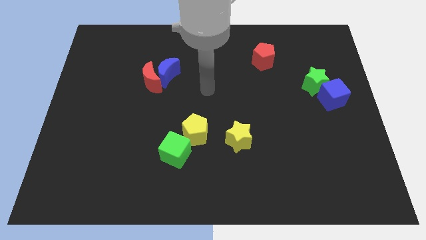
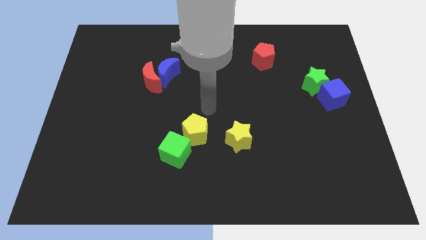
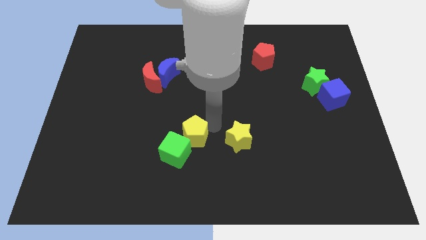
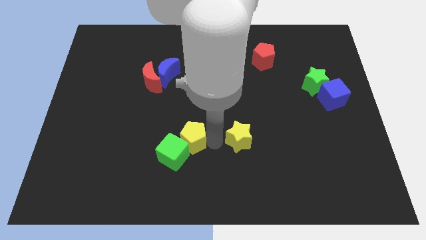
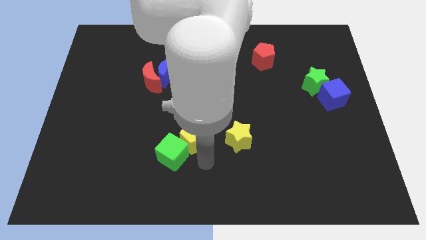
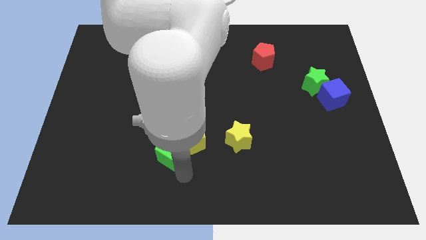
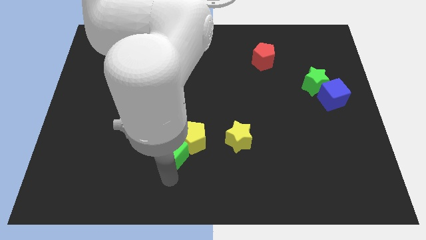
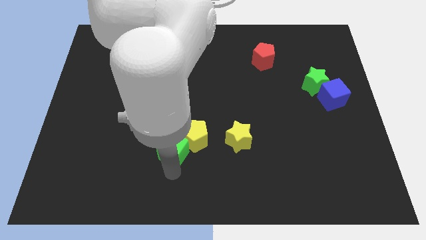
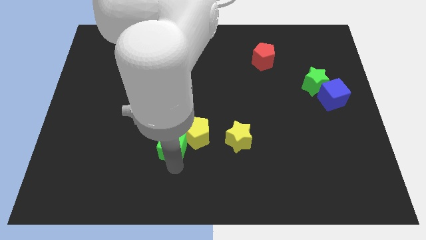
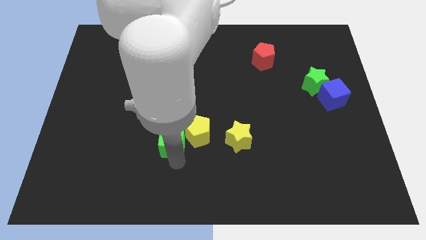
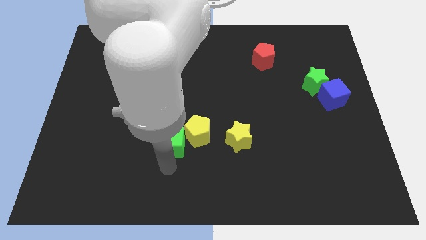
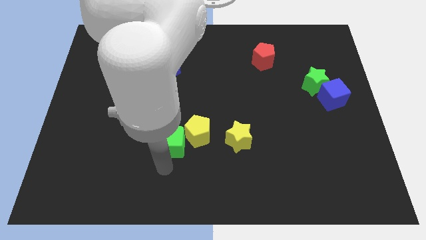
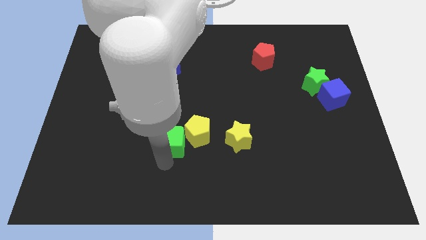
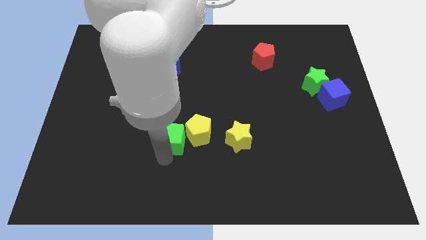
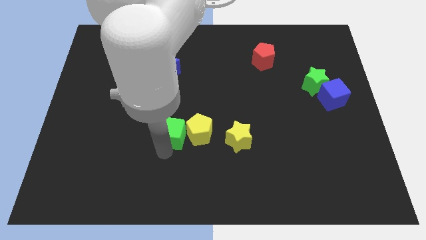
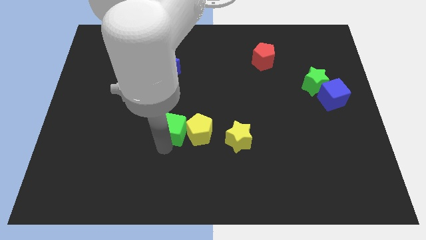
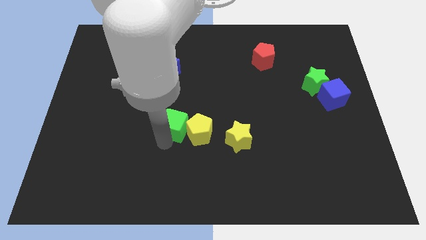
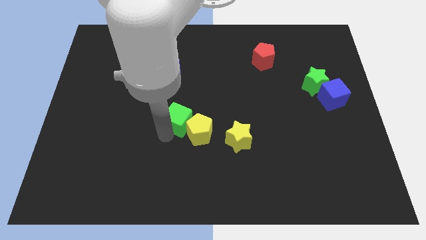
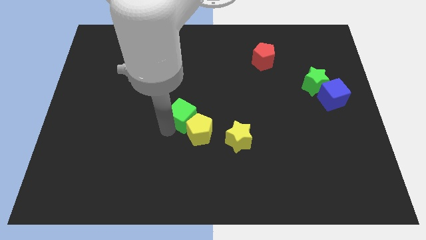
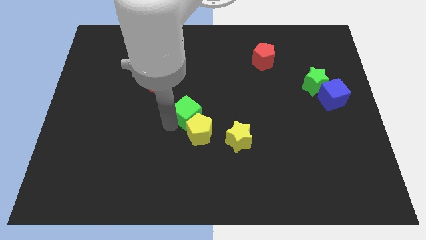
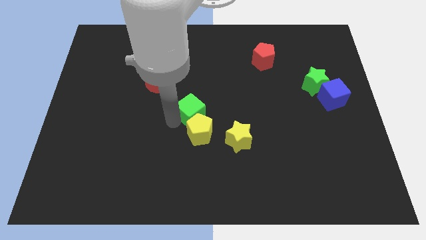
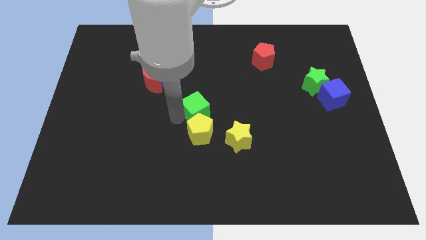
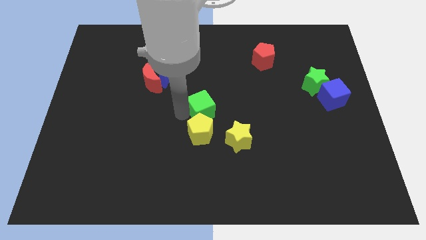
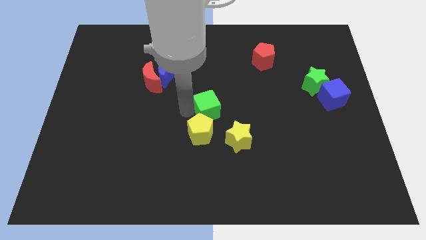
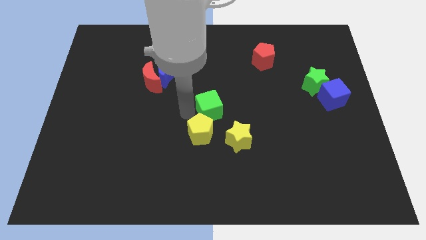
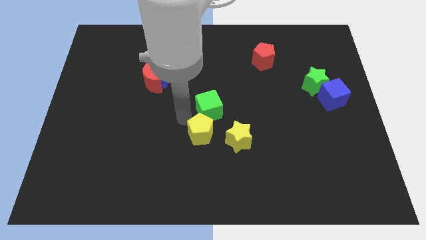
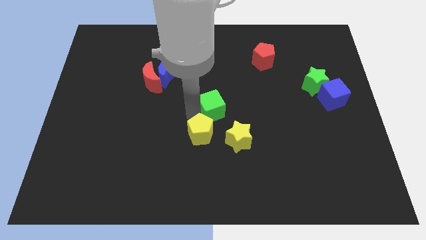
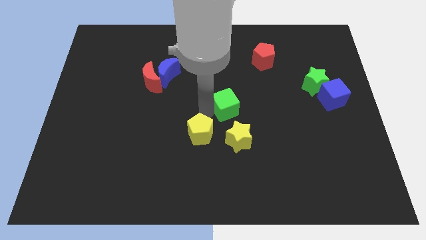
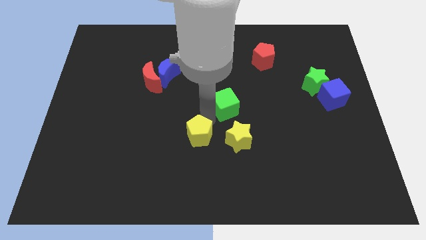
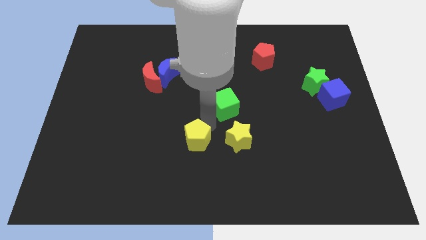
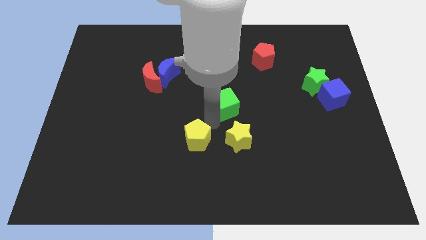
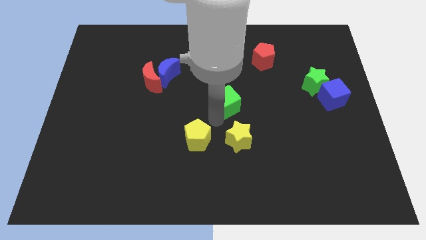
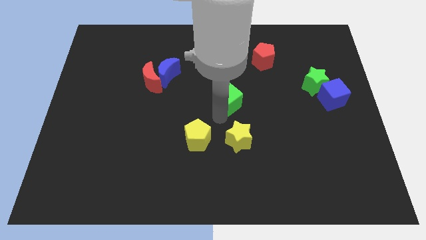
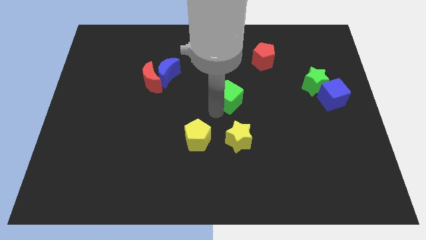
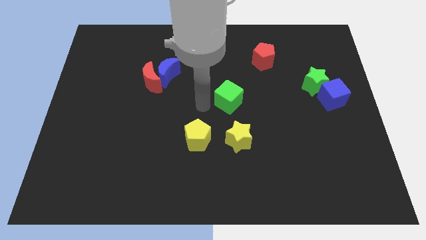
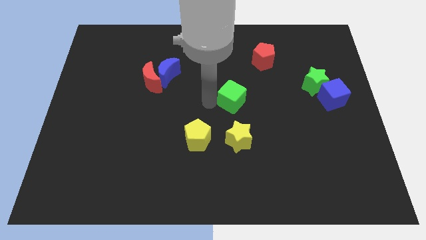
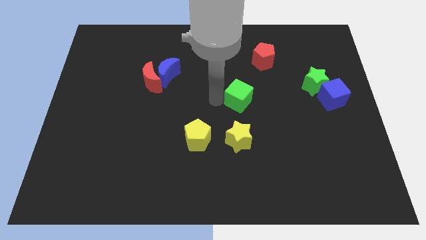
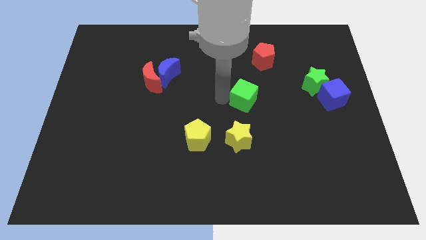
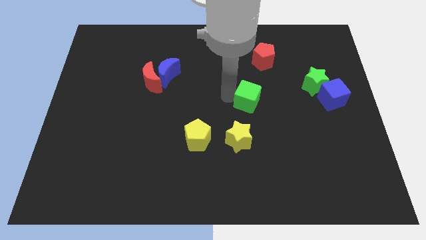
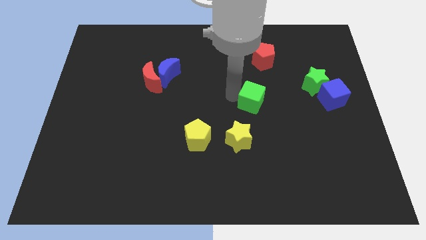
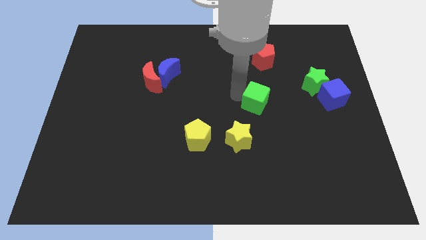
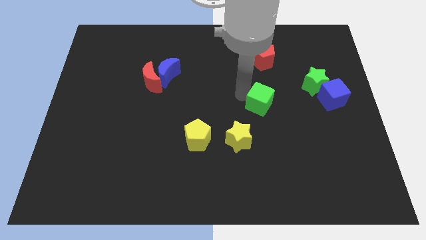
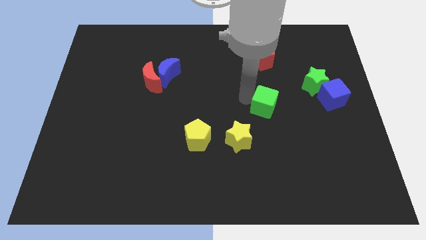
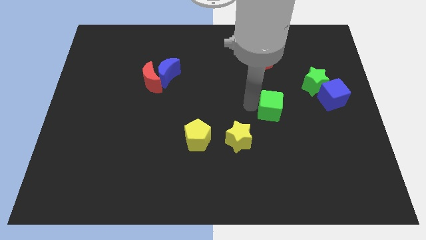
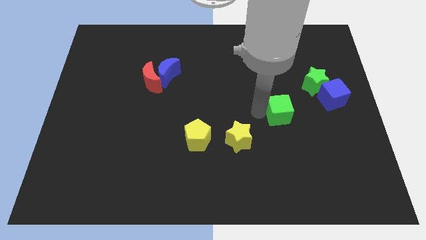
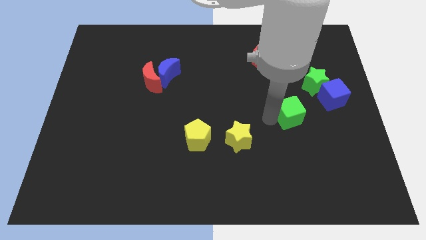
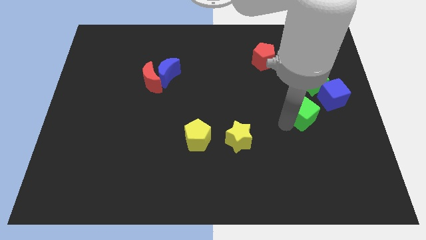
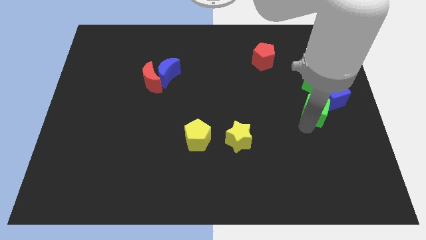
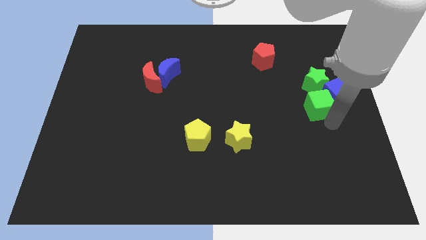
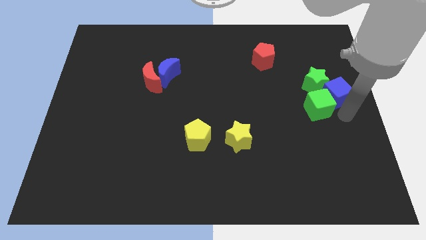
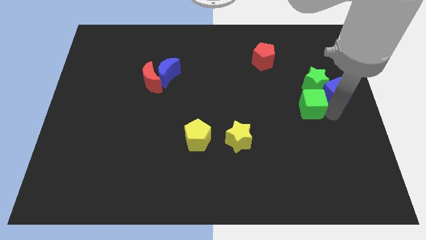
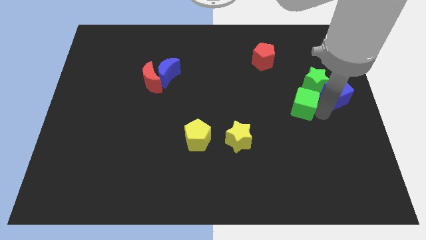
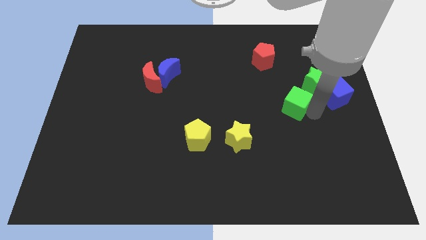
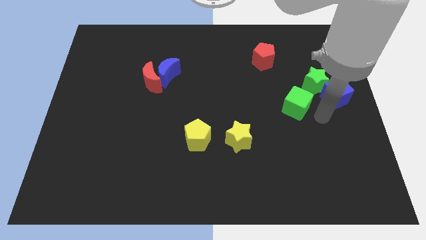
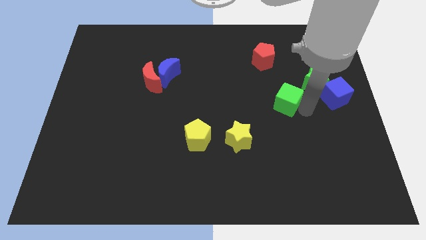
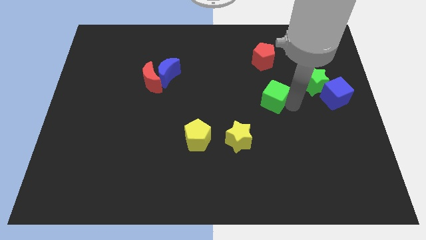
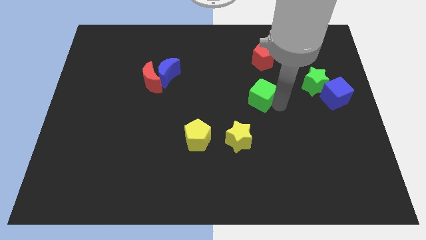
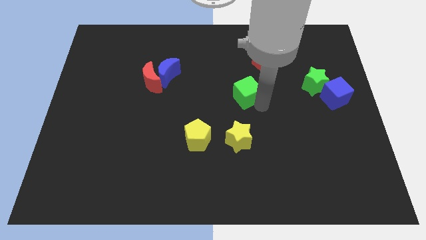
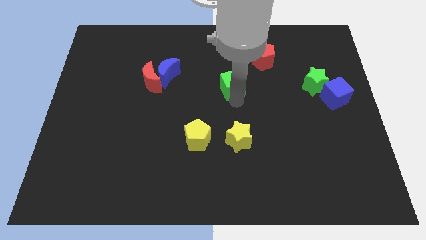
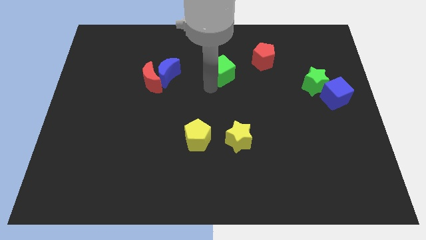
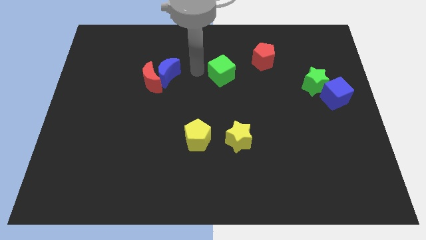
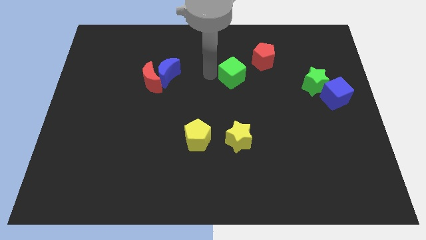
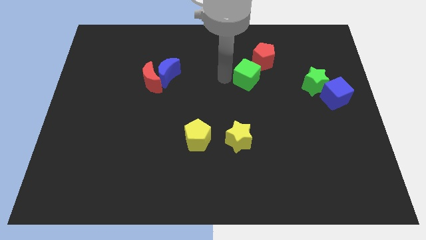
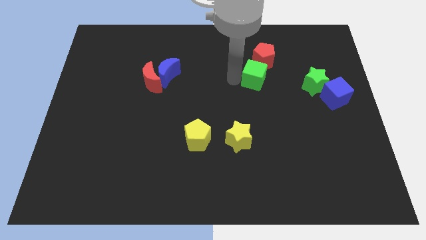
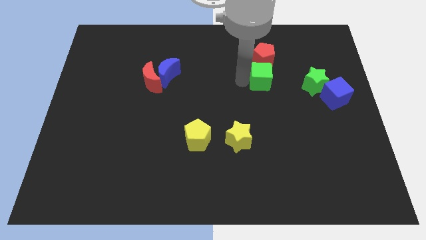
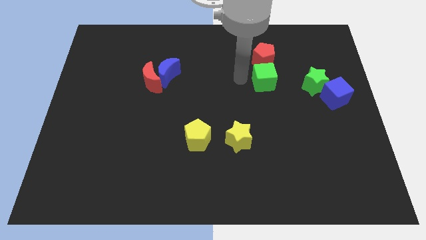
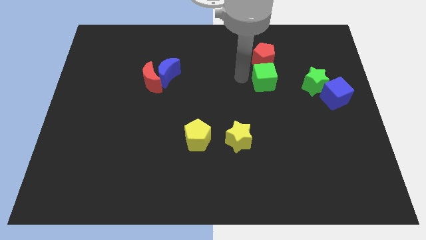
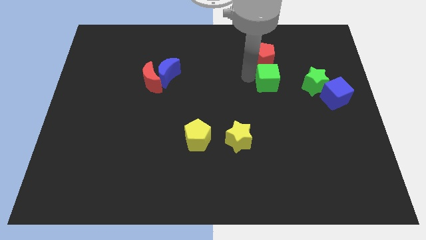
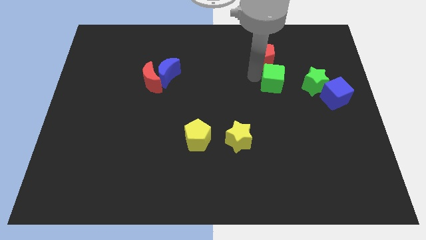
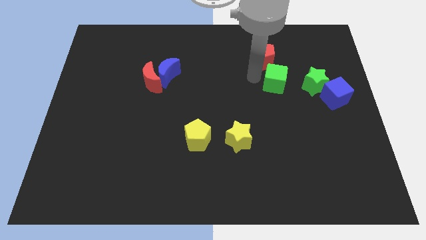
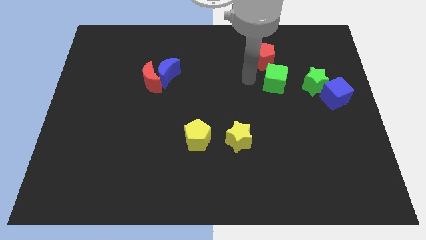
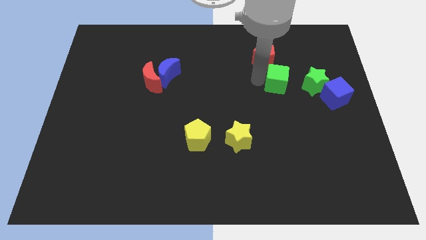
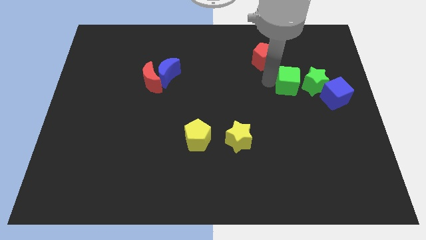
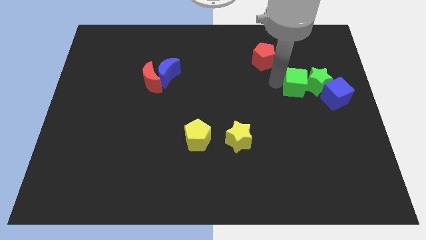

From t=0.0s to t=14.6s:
move the green cube close to the green star

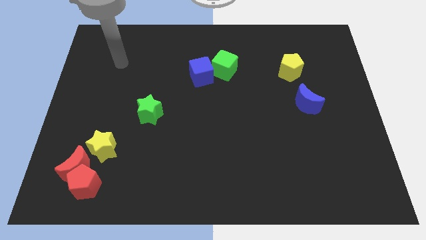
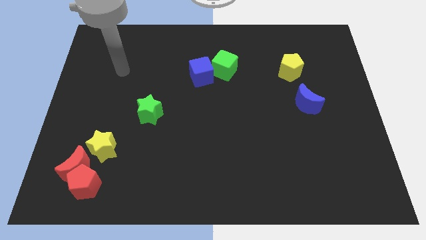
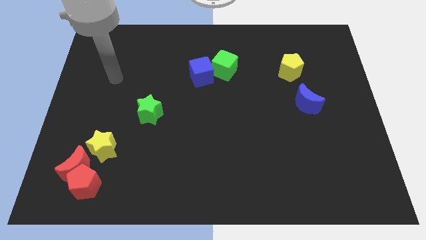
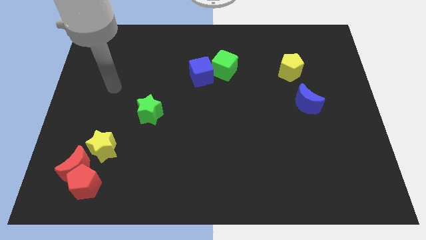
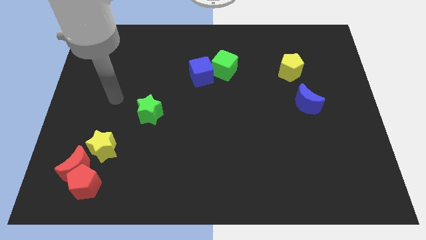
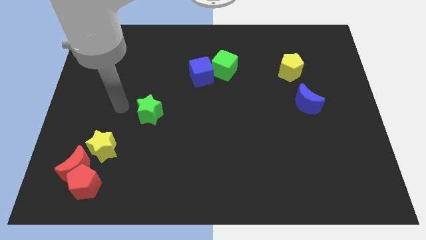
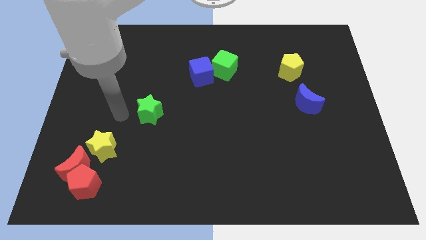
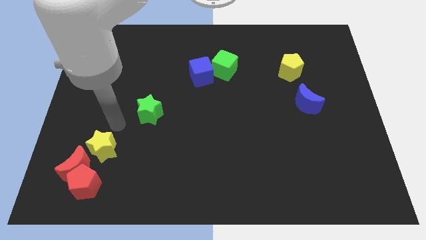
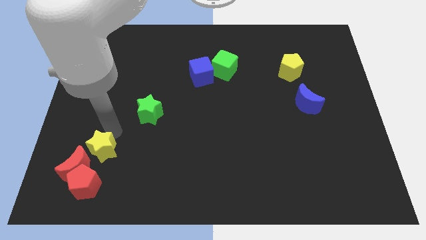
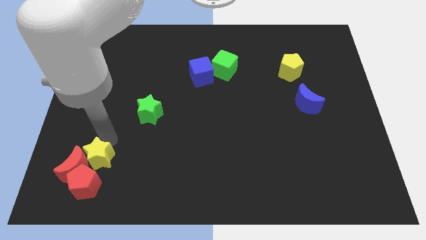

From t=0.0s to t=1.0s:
move the yellow star to the red pentagon
